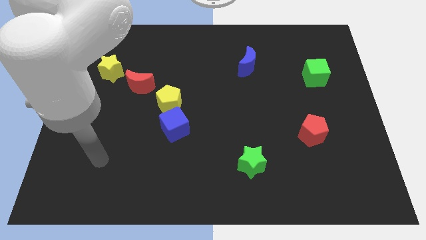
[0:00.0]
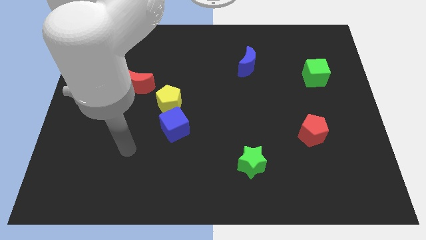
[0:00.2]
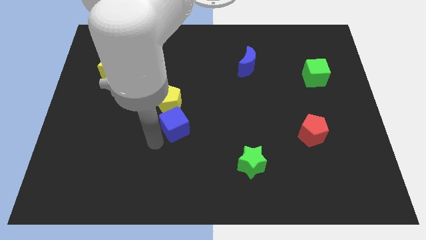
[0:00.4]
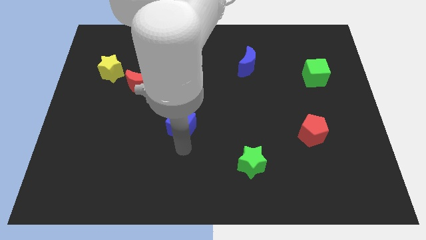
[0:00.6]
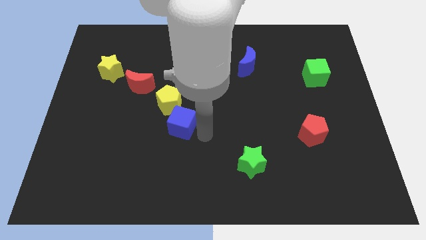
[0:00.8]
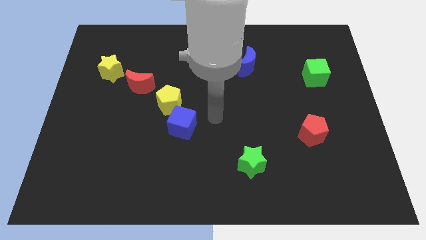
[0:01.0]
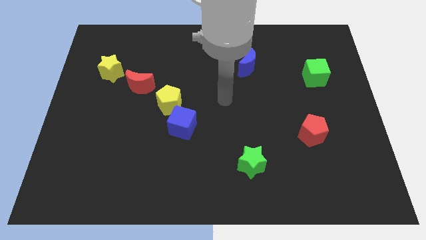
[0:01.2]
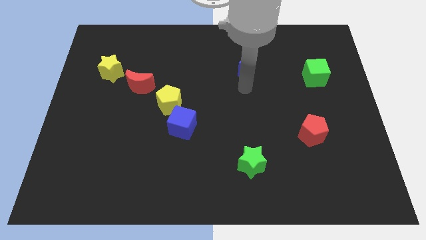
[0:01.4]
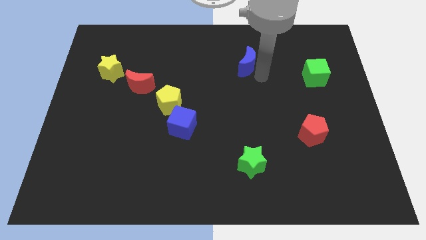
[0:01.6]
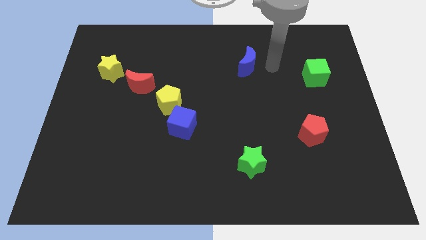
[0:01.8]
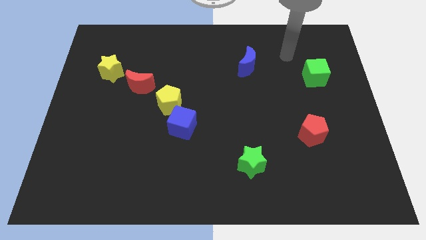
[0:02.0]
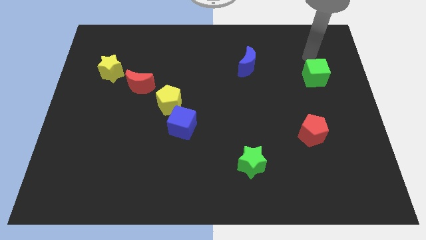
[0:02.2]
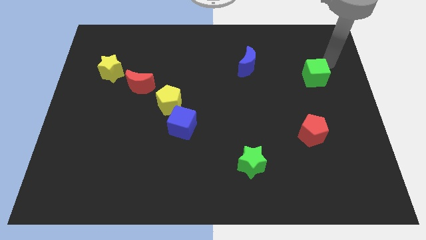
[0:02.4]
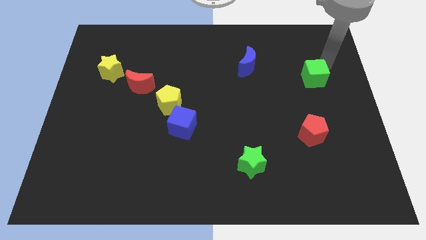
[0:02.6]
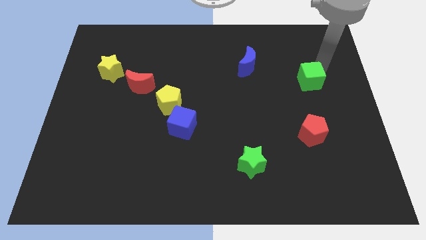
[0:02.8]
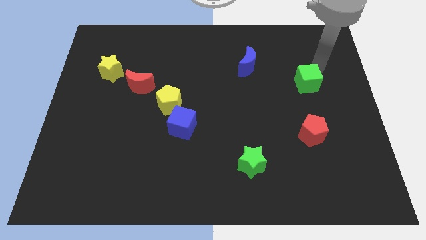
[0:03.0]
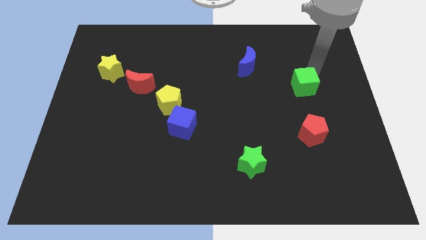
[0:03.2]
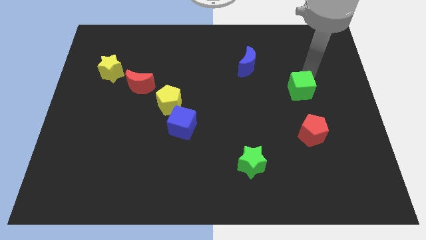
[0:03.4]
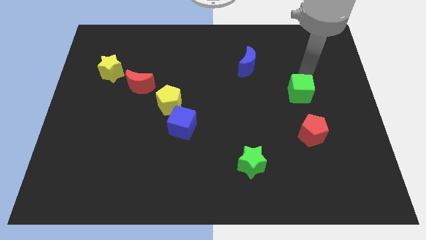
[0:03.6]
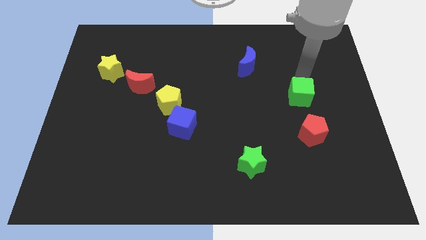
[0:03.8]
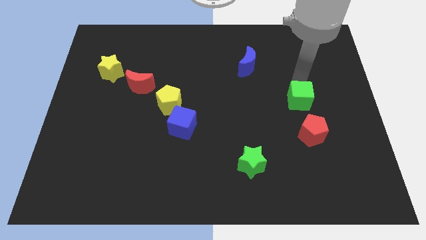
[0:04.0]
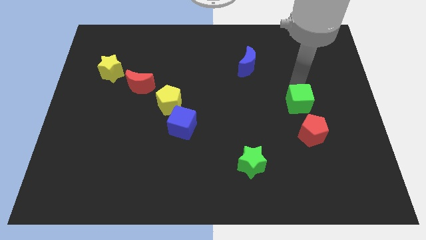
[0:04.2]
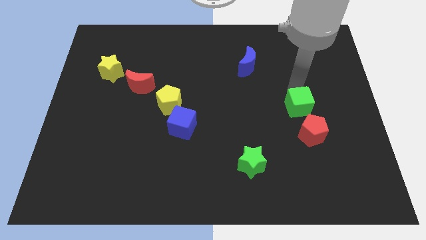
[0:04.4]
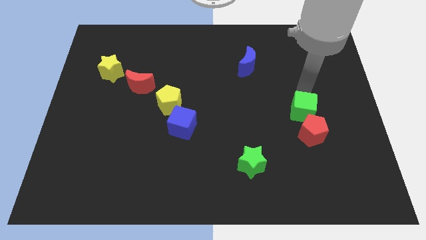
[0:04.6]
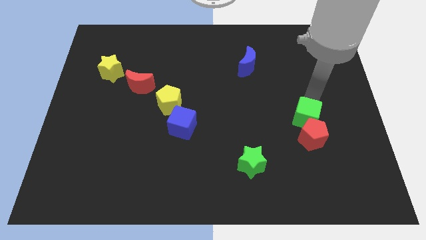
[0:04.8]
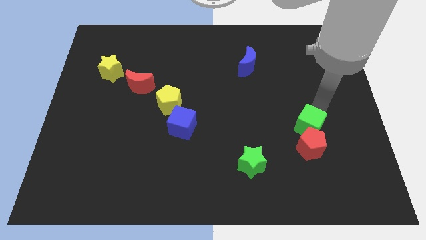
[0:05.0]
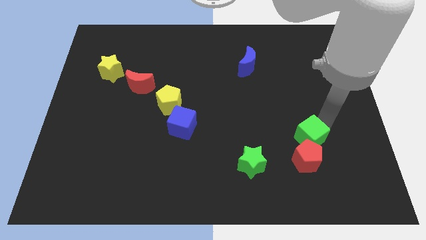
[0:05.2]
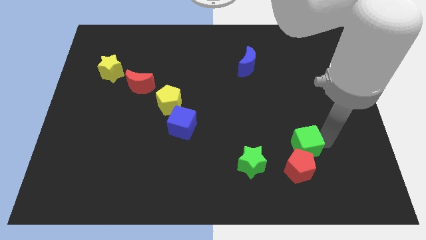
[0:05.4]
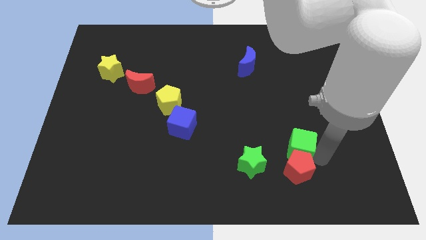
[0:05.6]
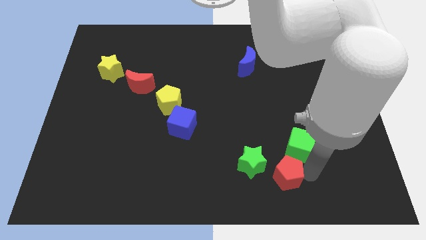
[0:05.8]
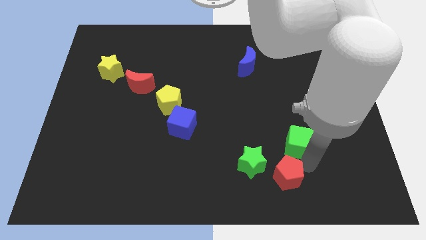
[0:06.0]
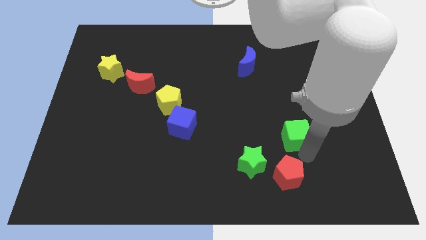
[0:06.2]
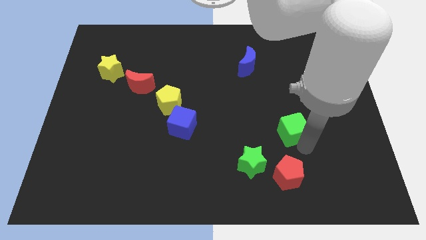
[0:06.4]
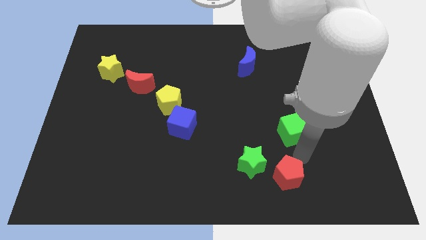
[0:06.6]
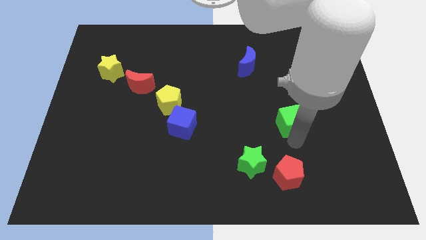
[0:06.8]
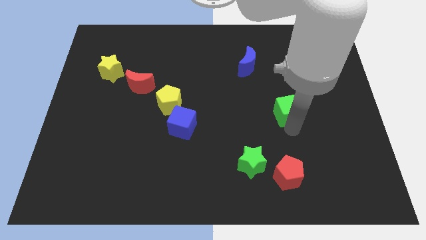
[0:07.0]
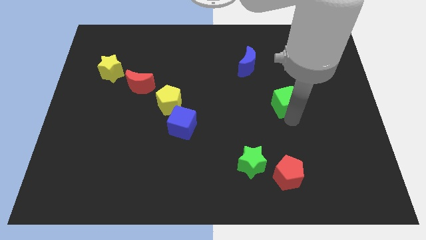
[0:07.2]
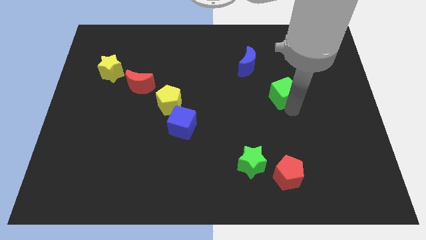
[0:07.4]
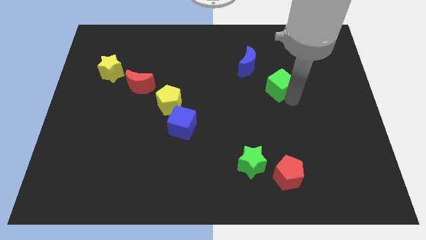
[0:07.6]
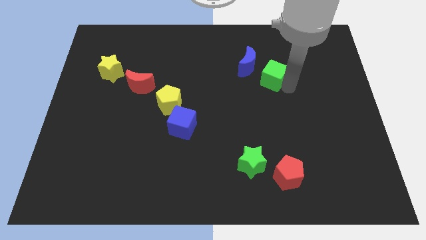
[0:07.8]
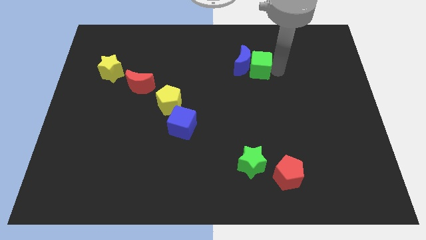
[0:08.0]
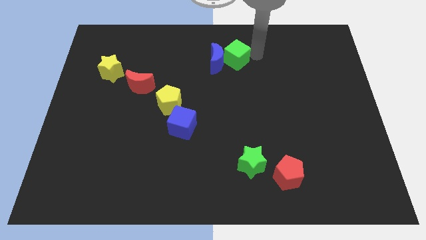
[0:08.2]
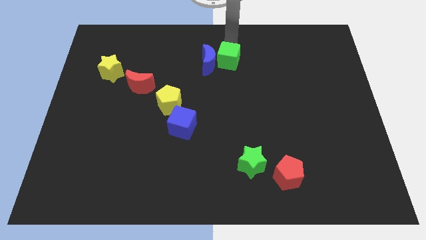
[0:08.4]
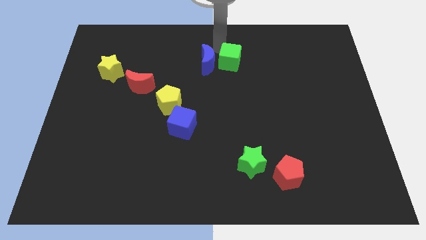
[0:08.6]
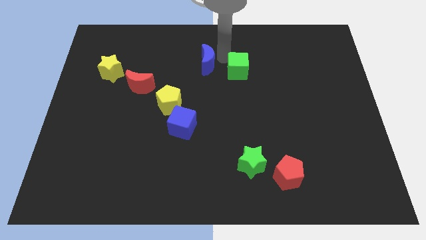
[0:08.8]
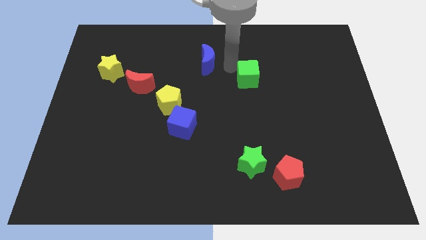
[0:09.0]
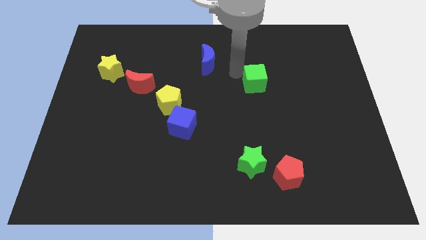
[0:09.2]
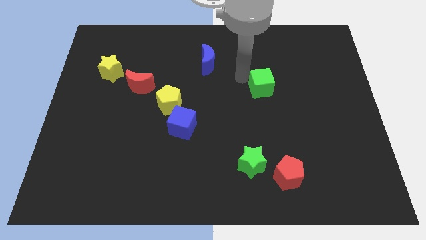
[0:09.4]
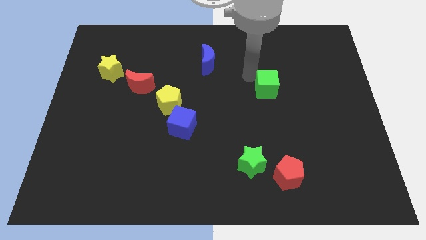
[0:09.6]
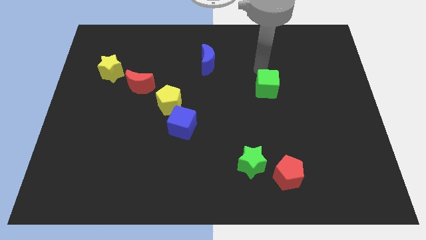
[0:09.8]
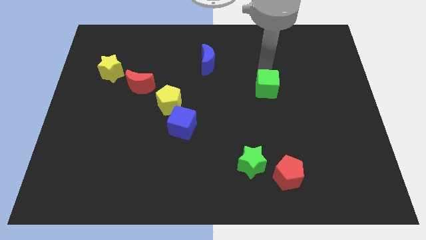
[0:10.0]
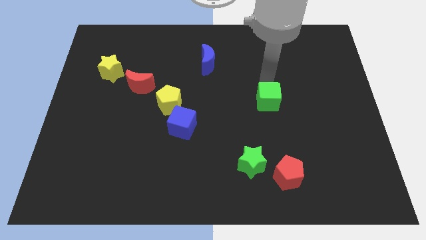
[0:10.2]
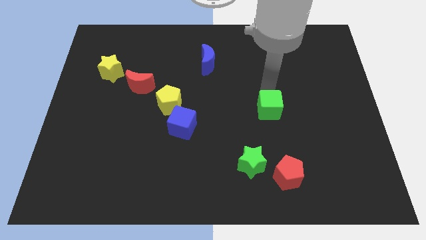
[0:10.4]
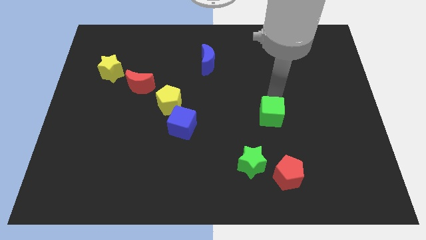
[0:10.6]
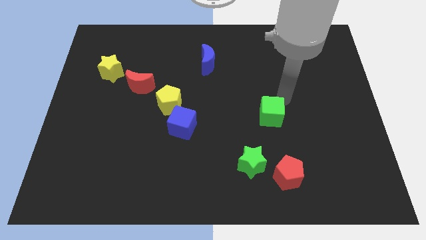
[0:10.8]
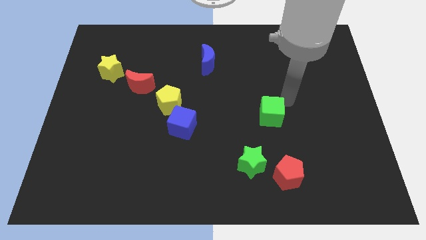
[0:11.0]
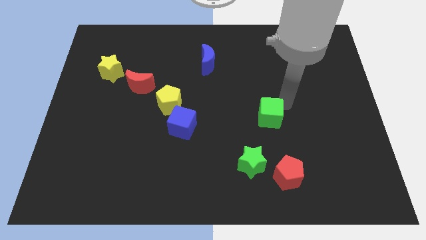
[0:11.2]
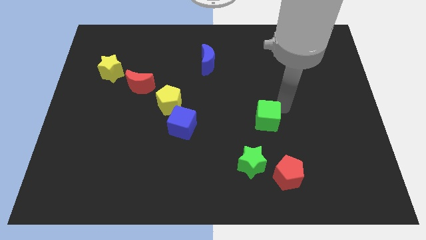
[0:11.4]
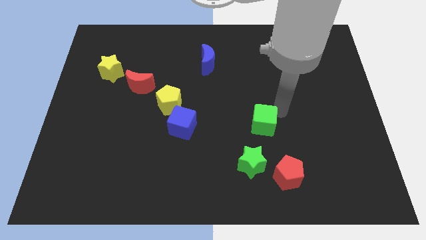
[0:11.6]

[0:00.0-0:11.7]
push the green cube down and left

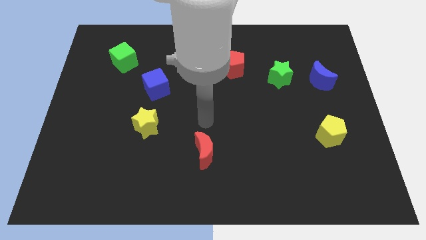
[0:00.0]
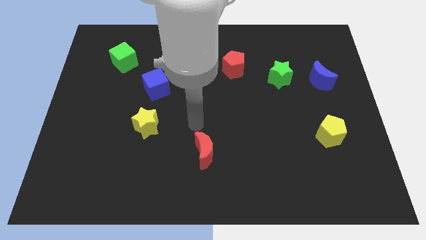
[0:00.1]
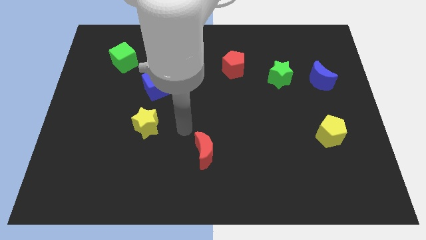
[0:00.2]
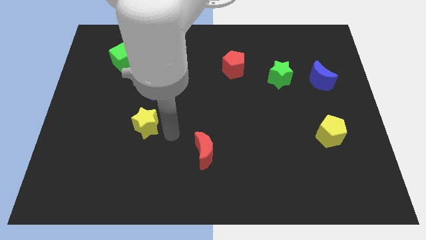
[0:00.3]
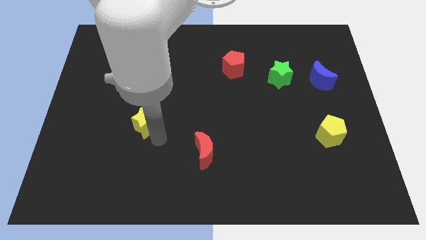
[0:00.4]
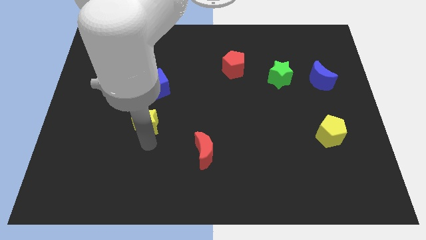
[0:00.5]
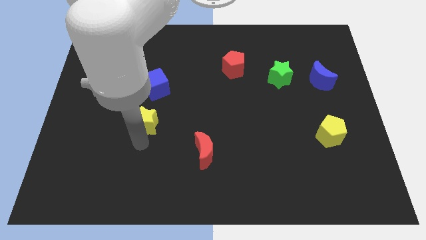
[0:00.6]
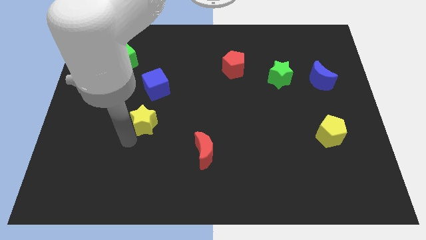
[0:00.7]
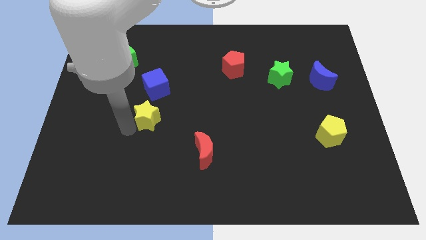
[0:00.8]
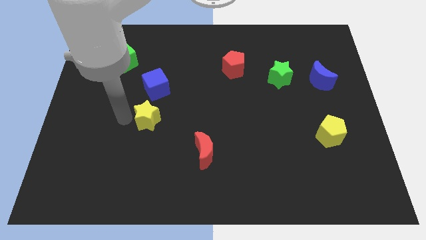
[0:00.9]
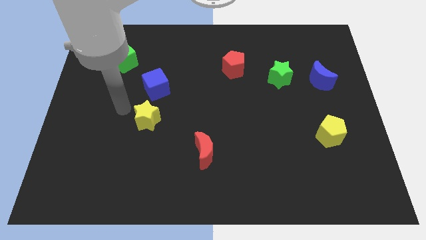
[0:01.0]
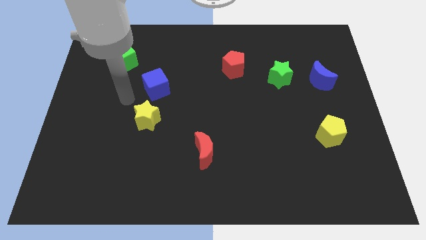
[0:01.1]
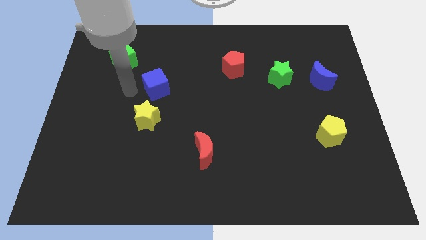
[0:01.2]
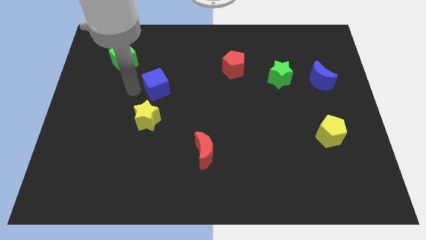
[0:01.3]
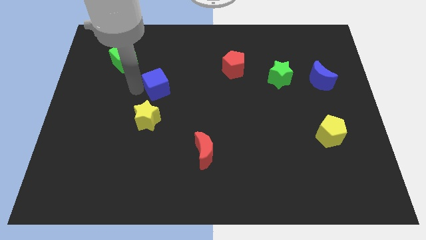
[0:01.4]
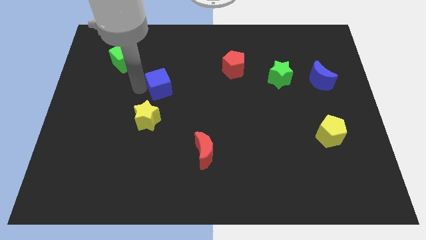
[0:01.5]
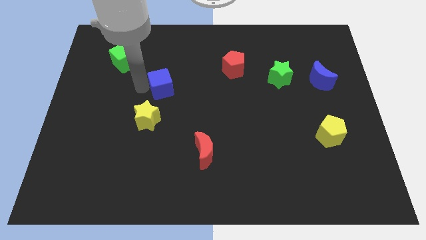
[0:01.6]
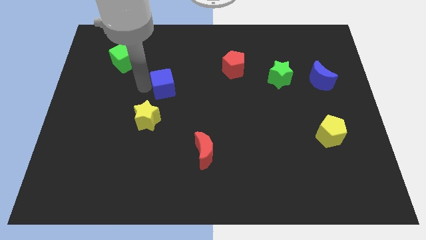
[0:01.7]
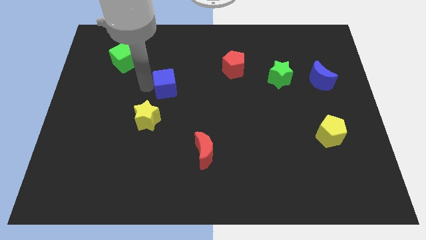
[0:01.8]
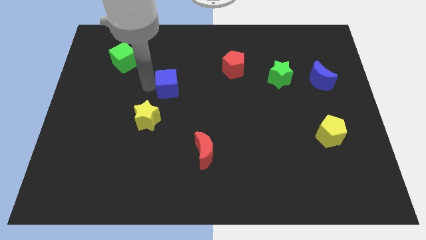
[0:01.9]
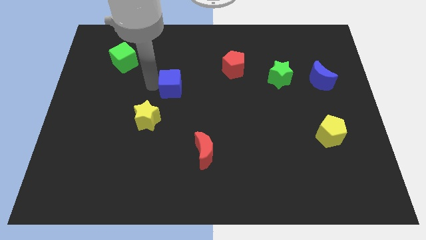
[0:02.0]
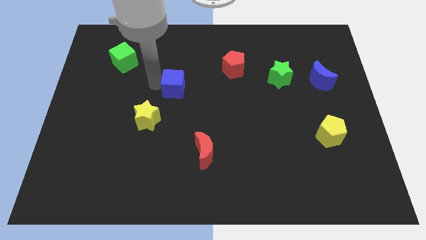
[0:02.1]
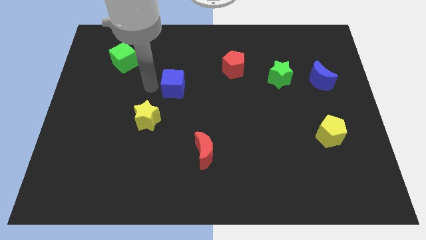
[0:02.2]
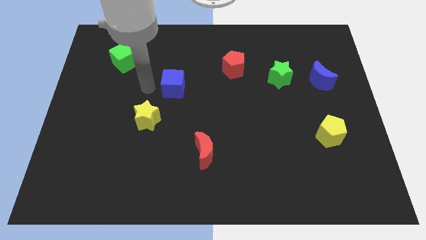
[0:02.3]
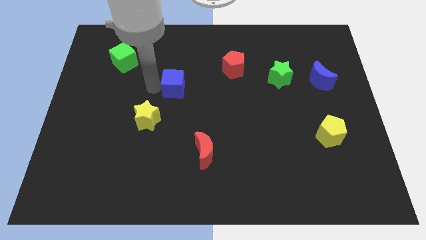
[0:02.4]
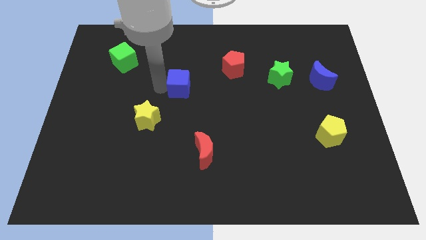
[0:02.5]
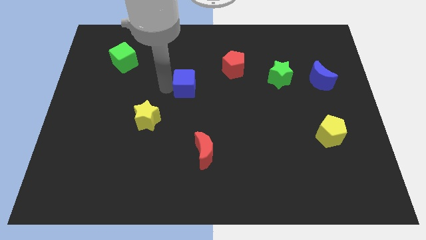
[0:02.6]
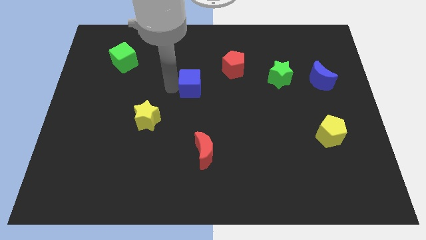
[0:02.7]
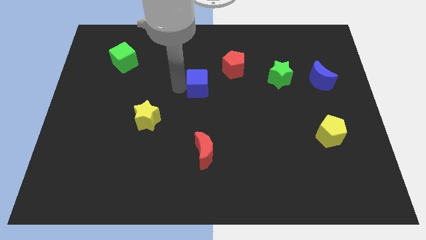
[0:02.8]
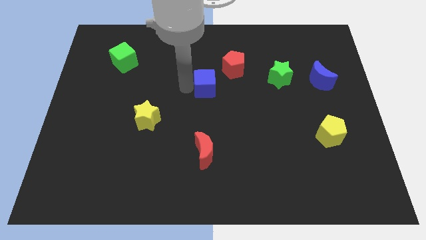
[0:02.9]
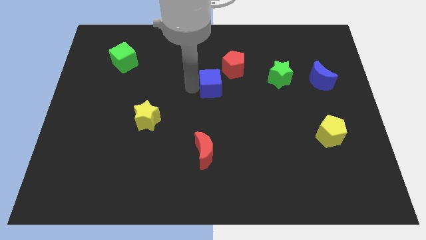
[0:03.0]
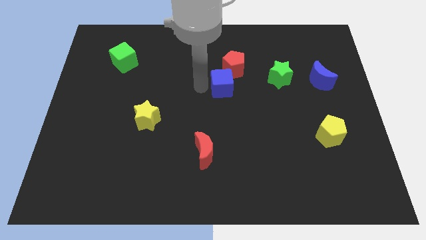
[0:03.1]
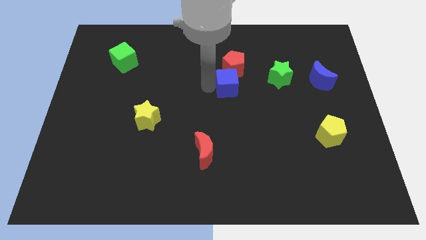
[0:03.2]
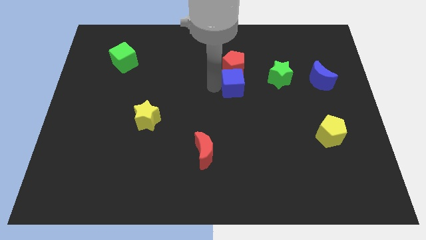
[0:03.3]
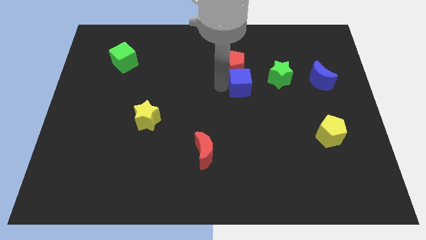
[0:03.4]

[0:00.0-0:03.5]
slide the blue cube to the right
